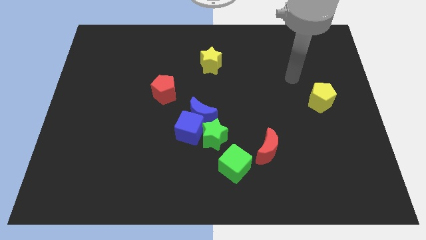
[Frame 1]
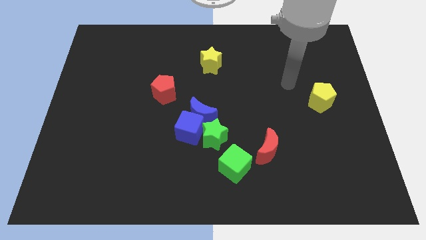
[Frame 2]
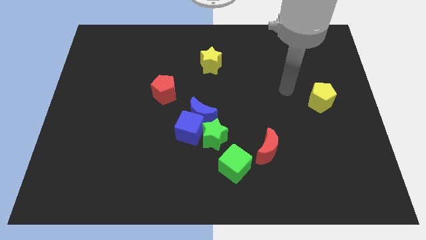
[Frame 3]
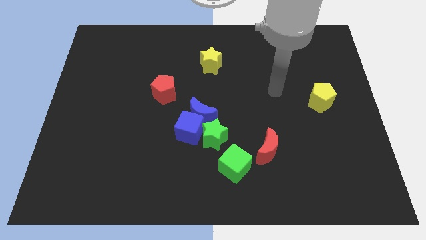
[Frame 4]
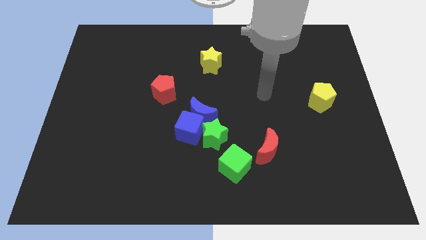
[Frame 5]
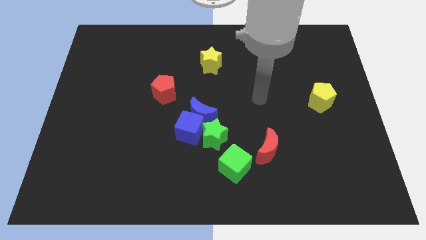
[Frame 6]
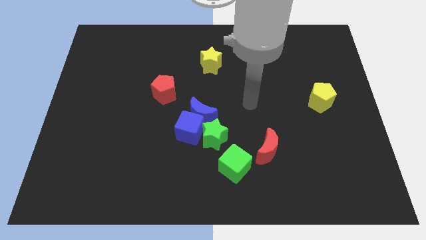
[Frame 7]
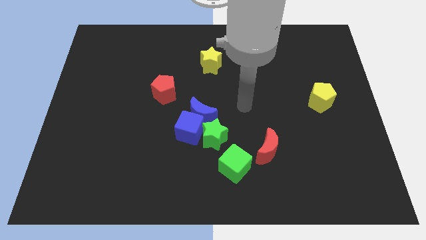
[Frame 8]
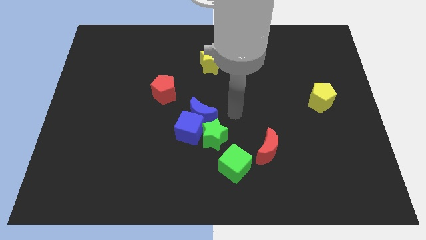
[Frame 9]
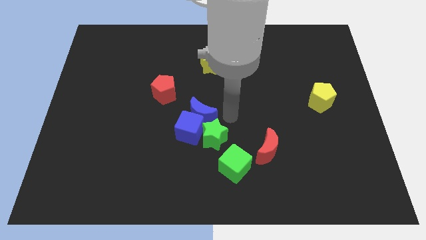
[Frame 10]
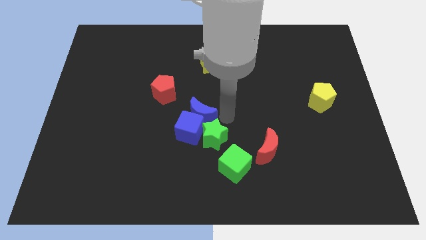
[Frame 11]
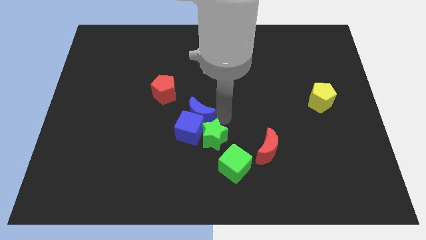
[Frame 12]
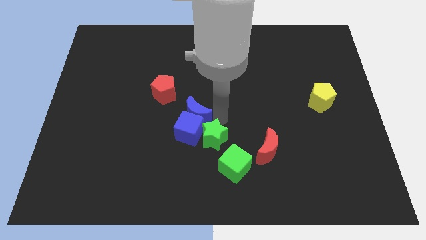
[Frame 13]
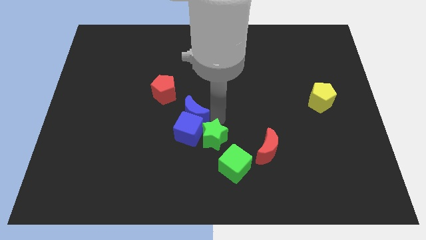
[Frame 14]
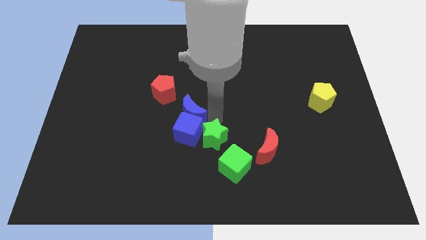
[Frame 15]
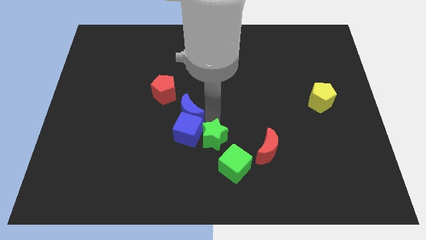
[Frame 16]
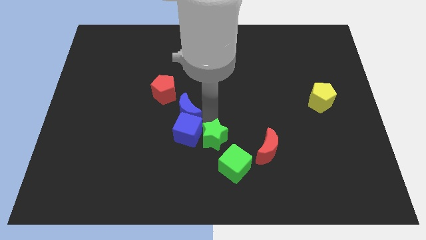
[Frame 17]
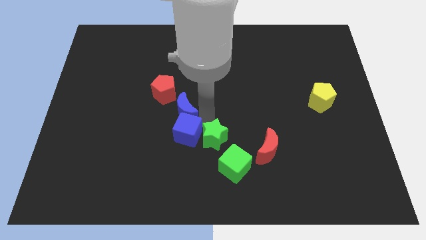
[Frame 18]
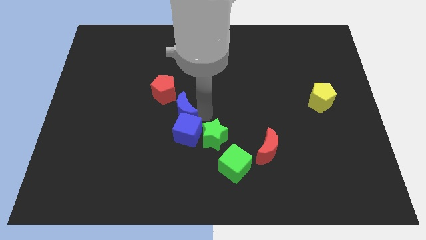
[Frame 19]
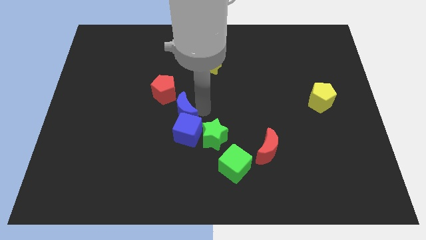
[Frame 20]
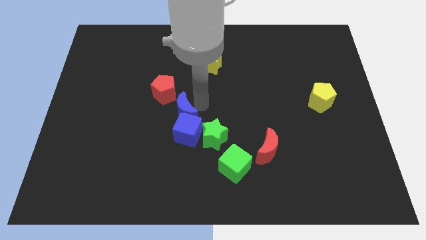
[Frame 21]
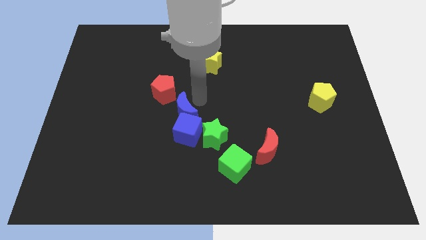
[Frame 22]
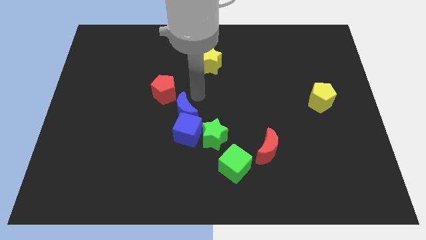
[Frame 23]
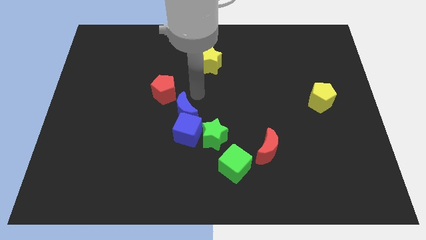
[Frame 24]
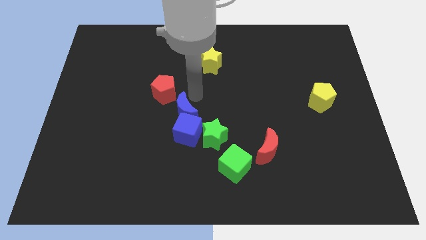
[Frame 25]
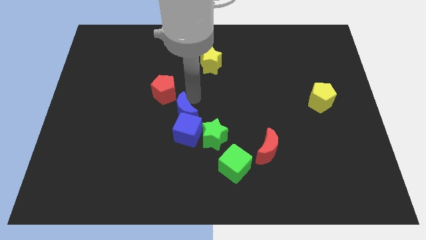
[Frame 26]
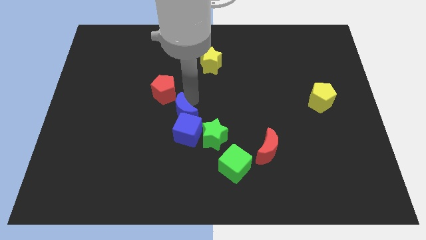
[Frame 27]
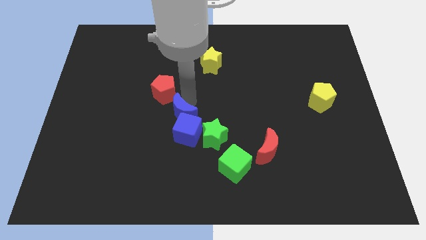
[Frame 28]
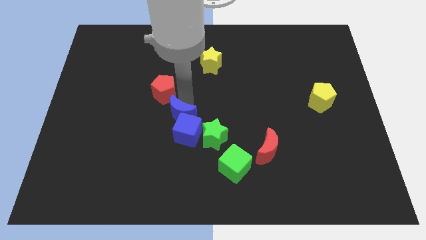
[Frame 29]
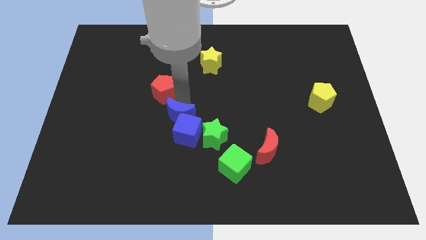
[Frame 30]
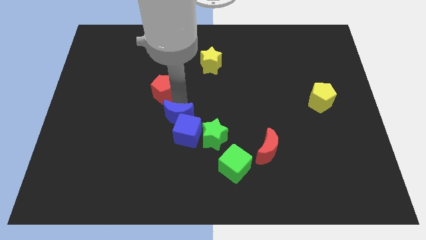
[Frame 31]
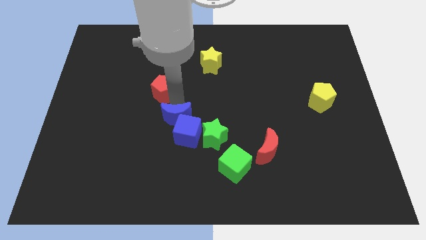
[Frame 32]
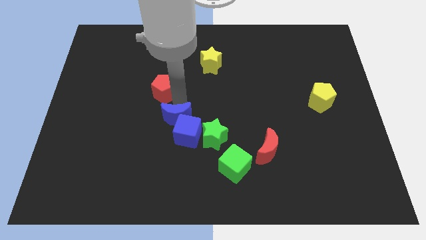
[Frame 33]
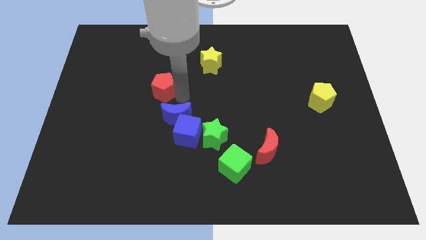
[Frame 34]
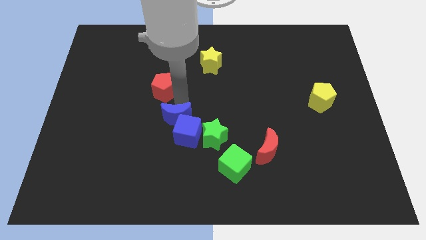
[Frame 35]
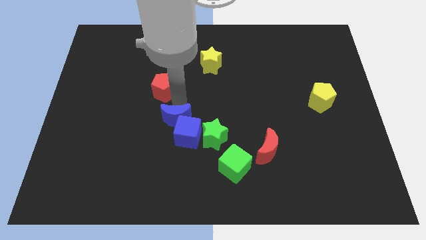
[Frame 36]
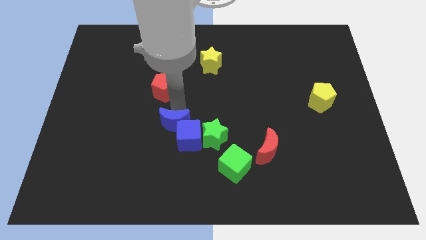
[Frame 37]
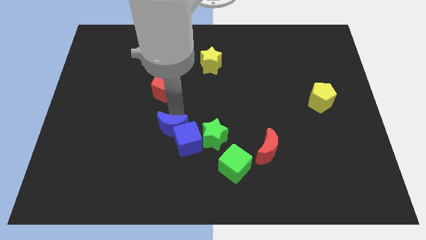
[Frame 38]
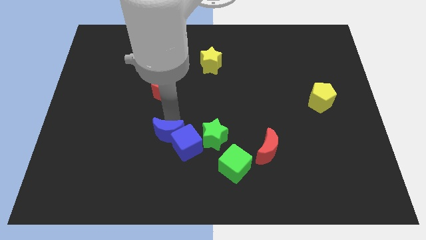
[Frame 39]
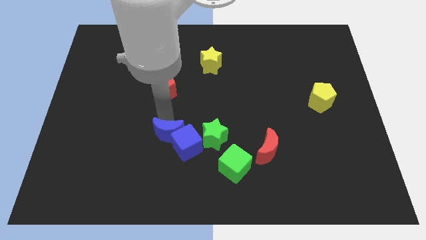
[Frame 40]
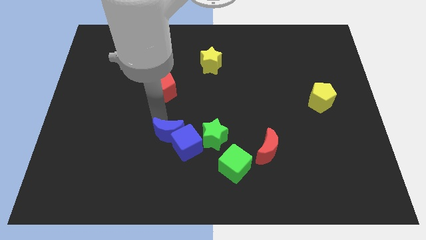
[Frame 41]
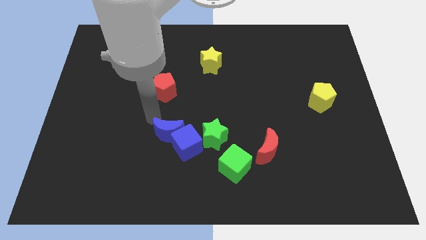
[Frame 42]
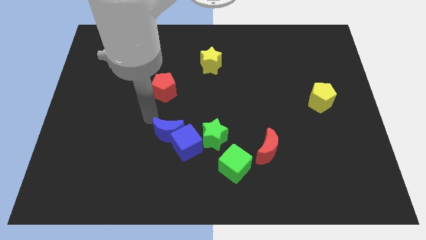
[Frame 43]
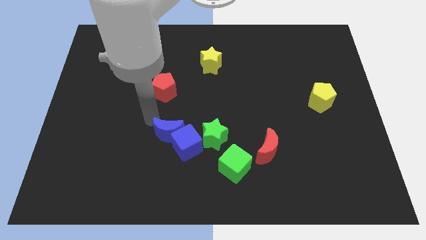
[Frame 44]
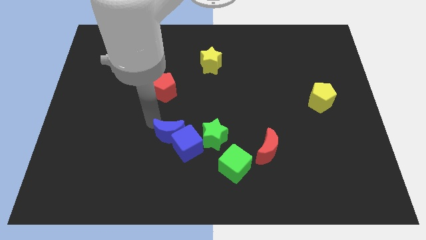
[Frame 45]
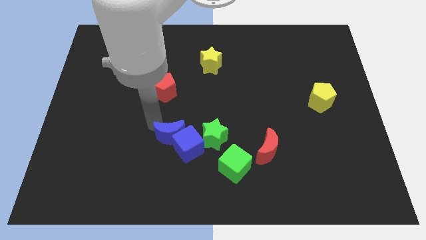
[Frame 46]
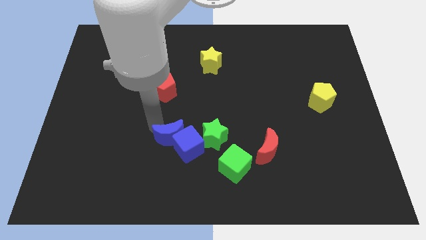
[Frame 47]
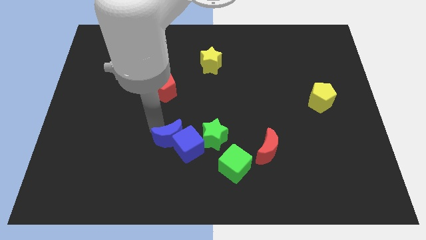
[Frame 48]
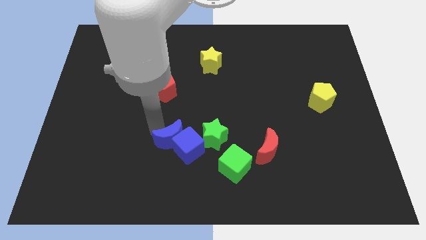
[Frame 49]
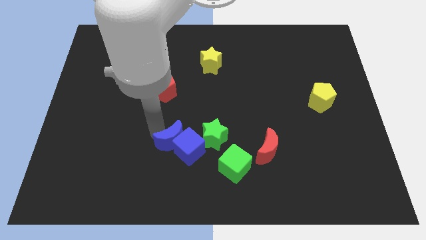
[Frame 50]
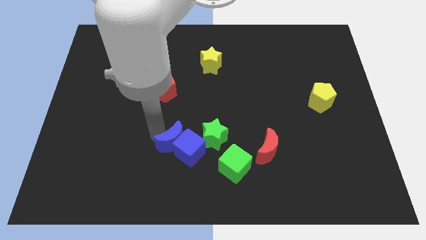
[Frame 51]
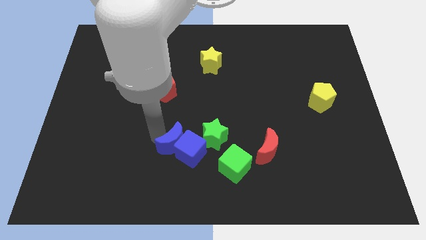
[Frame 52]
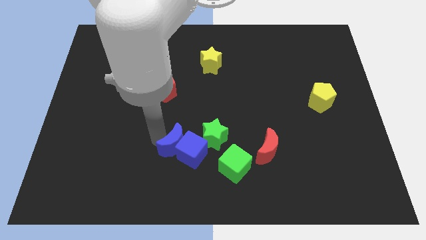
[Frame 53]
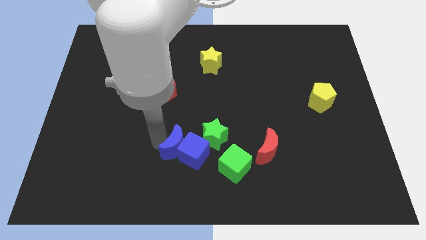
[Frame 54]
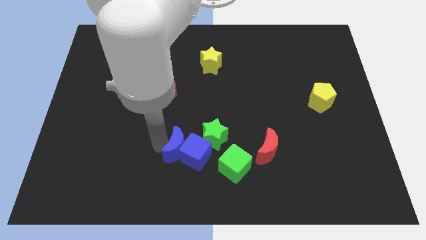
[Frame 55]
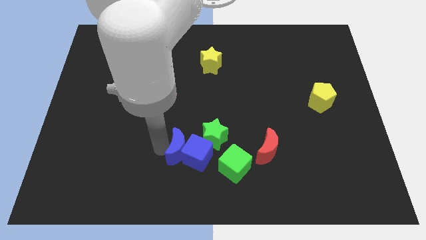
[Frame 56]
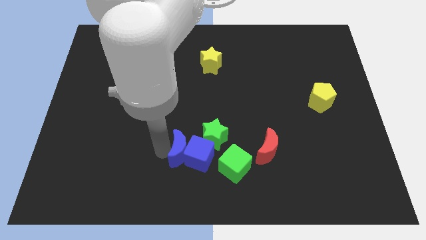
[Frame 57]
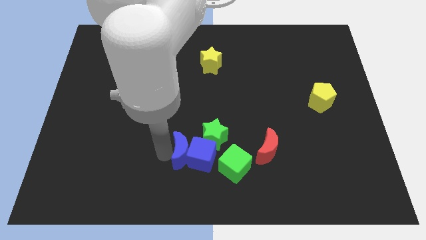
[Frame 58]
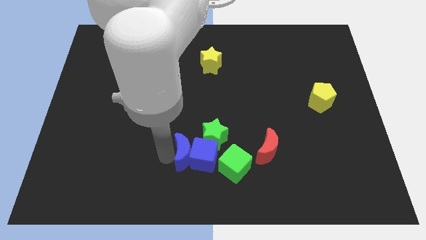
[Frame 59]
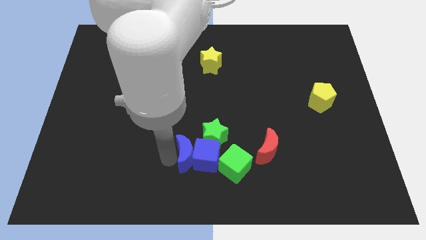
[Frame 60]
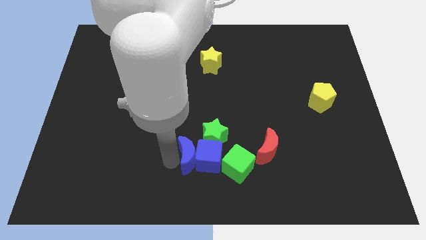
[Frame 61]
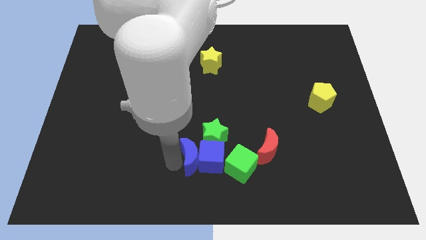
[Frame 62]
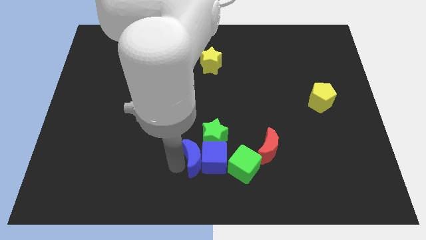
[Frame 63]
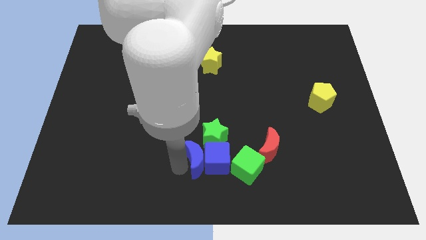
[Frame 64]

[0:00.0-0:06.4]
move the blue moon left of the red moon

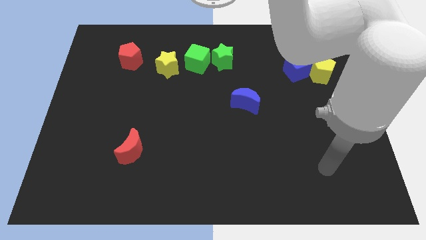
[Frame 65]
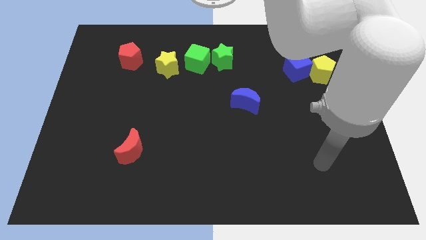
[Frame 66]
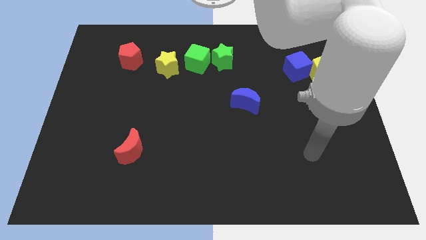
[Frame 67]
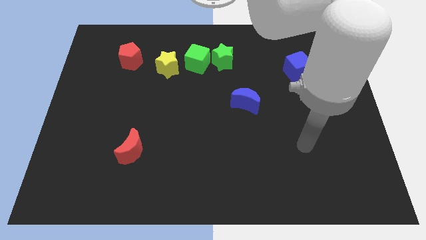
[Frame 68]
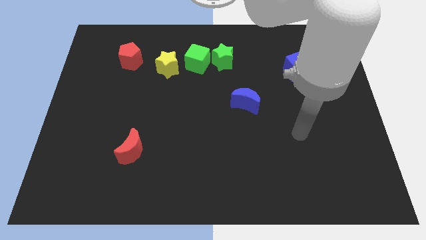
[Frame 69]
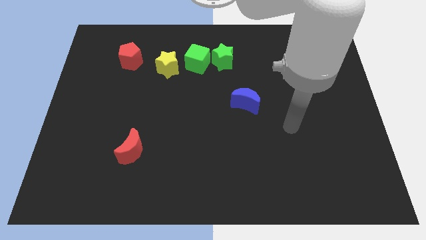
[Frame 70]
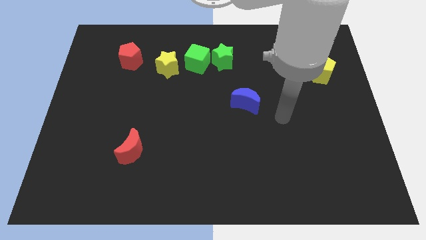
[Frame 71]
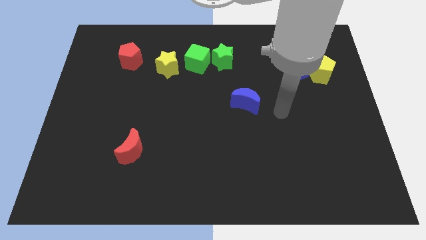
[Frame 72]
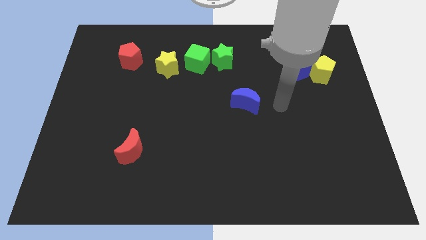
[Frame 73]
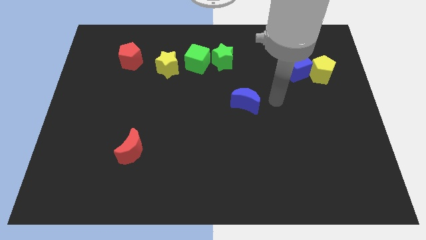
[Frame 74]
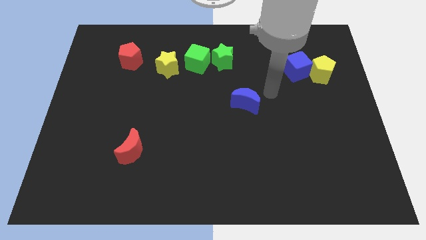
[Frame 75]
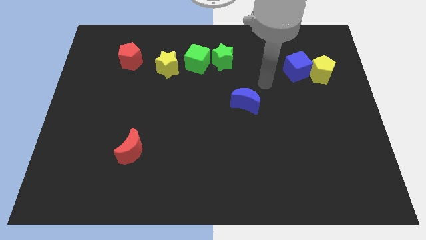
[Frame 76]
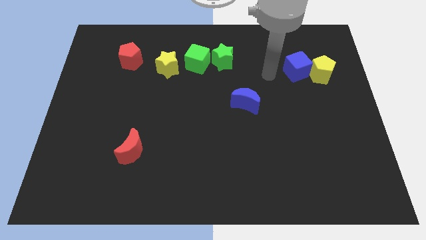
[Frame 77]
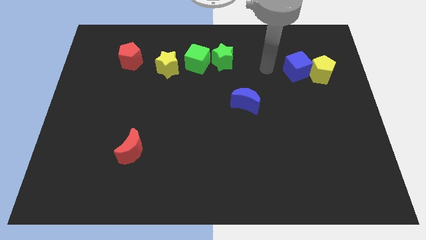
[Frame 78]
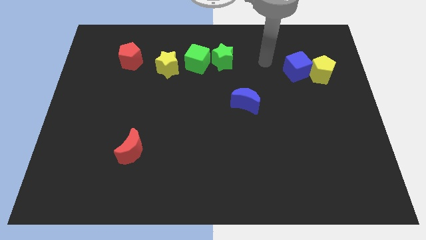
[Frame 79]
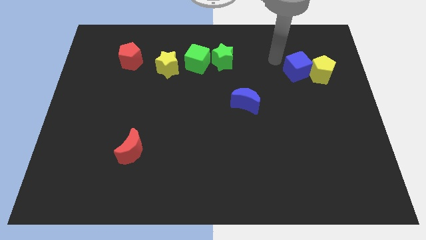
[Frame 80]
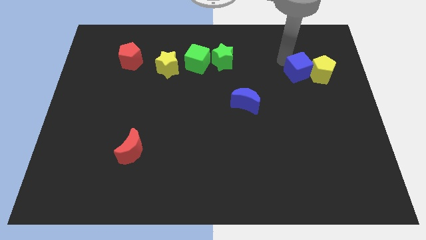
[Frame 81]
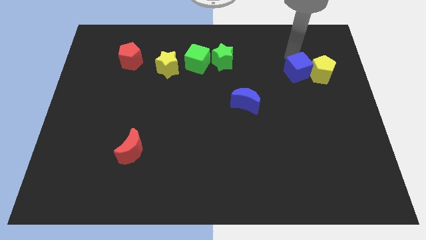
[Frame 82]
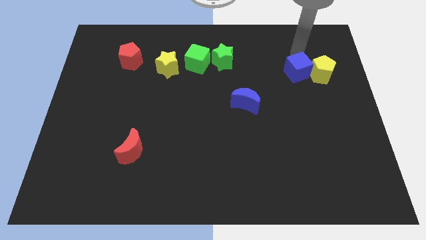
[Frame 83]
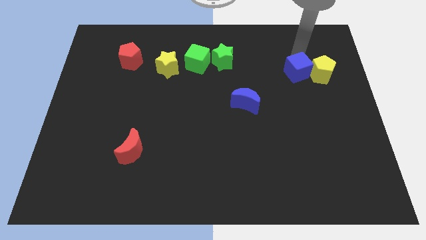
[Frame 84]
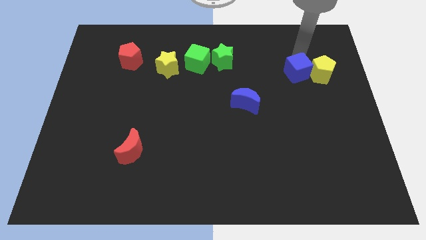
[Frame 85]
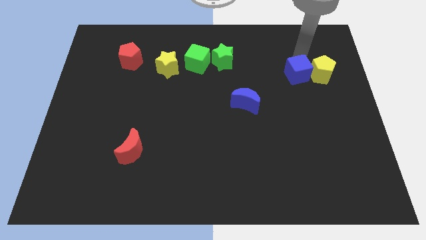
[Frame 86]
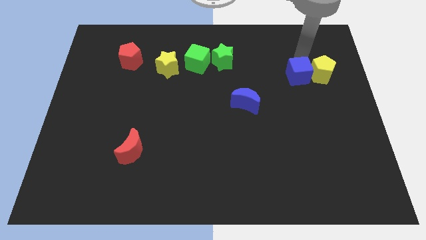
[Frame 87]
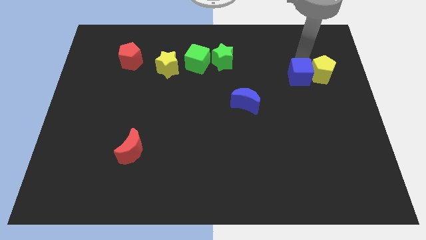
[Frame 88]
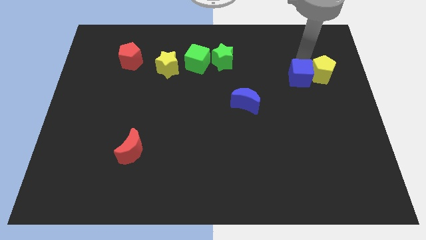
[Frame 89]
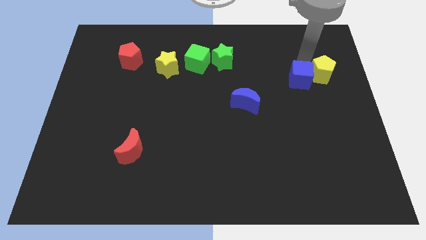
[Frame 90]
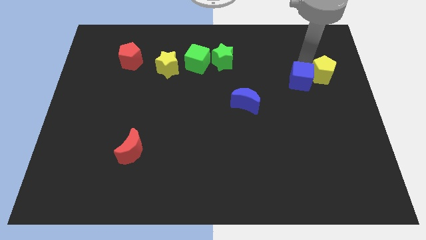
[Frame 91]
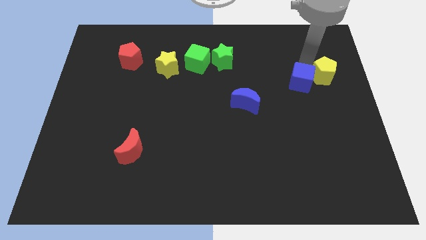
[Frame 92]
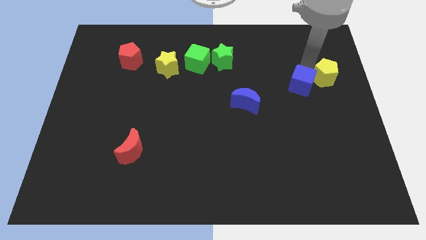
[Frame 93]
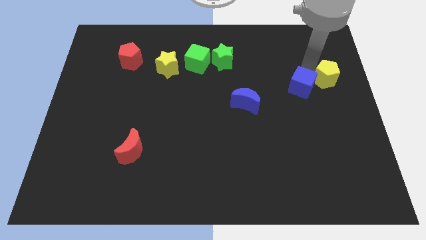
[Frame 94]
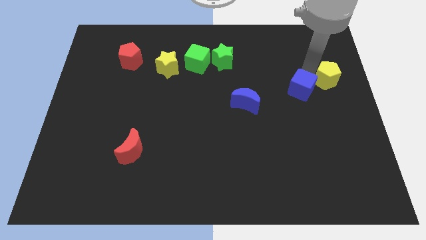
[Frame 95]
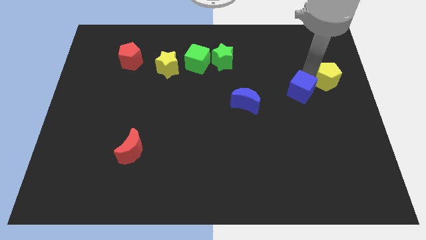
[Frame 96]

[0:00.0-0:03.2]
move the blue cube right of the blue moon
